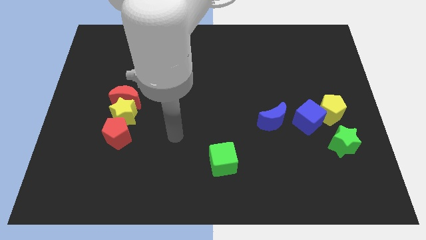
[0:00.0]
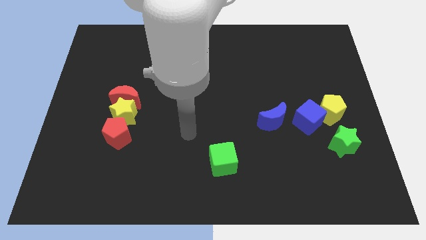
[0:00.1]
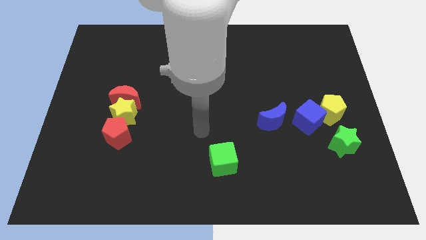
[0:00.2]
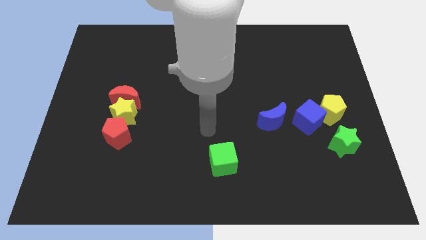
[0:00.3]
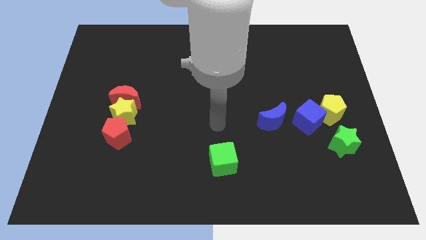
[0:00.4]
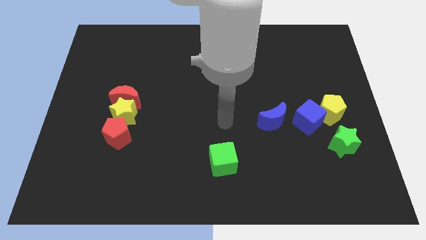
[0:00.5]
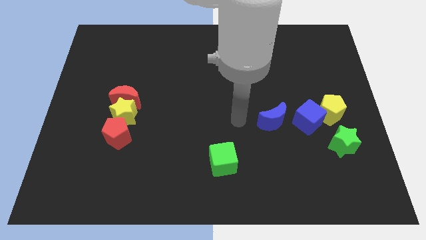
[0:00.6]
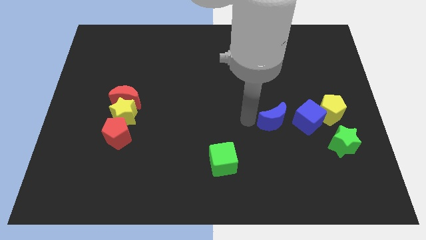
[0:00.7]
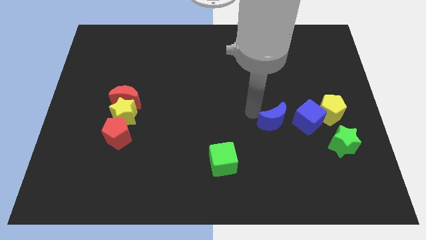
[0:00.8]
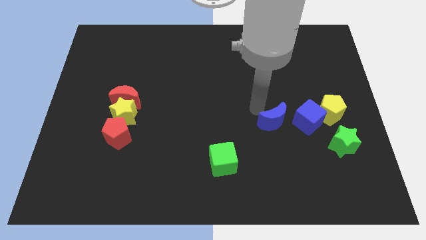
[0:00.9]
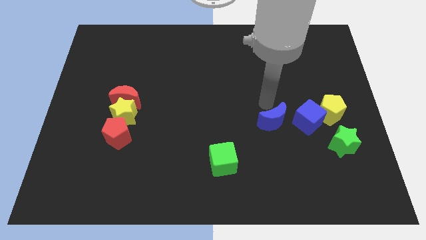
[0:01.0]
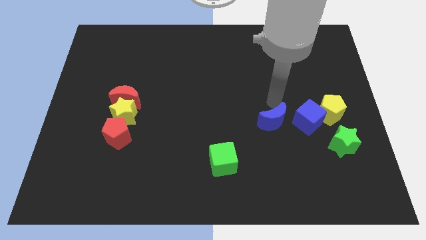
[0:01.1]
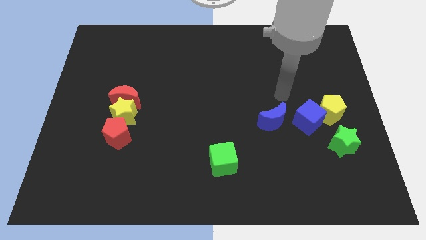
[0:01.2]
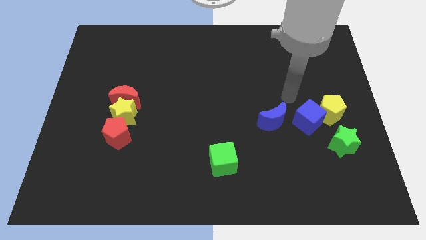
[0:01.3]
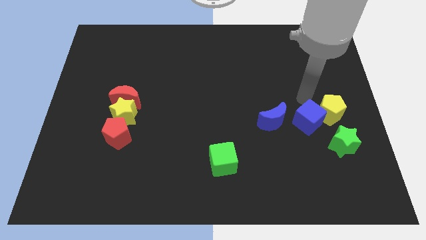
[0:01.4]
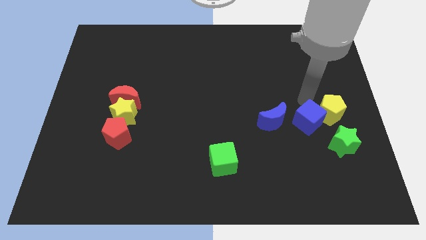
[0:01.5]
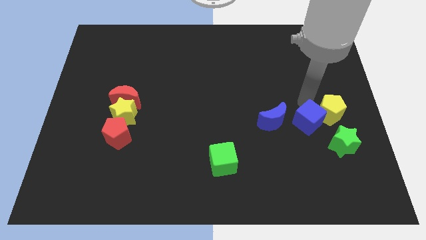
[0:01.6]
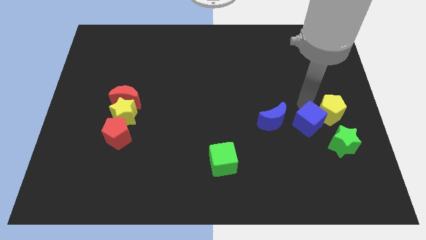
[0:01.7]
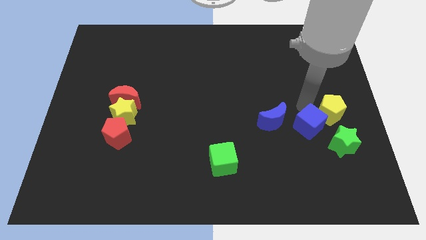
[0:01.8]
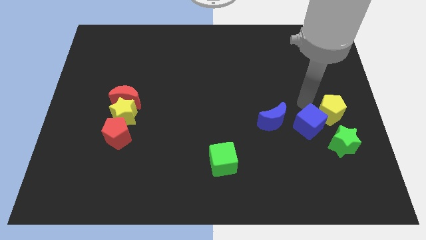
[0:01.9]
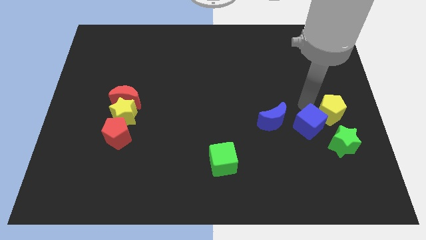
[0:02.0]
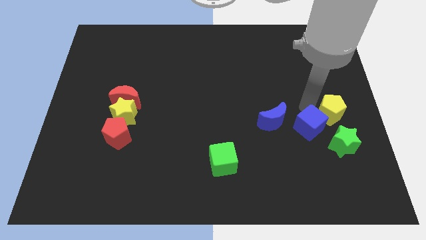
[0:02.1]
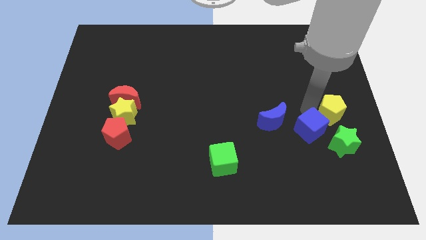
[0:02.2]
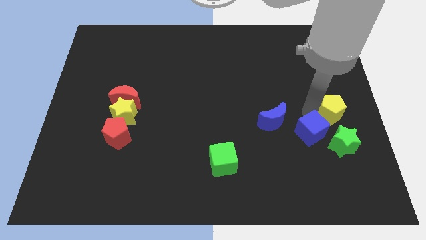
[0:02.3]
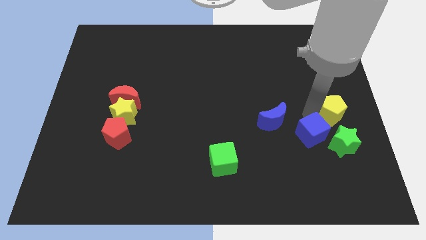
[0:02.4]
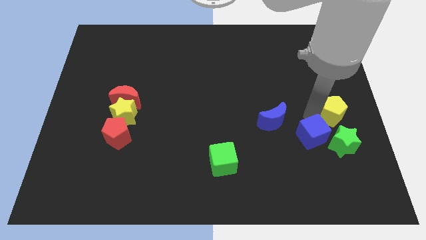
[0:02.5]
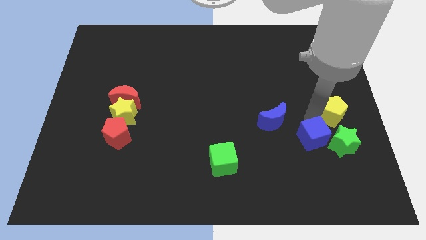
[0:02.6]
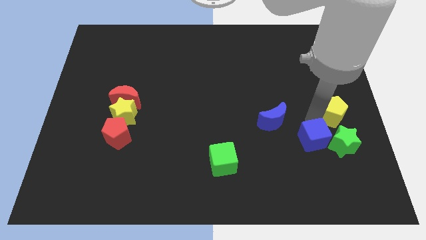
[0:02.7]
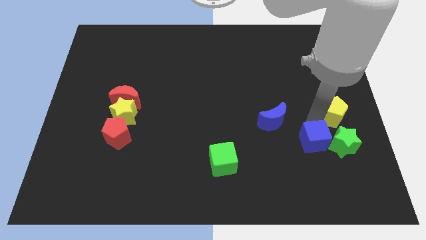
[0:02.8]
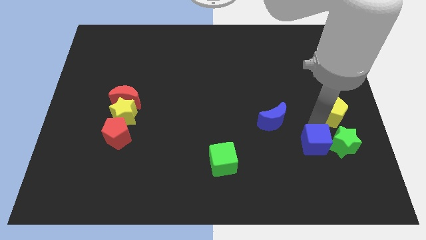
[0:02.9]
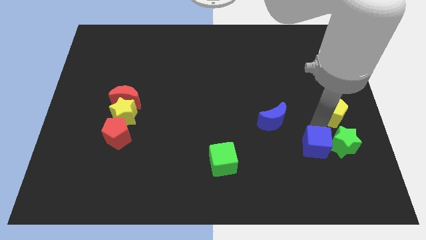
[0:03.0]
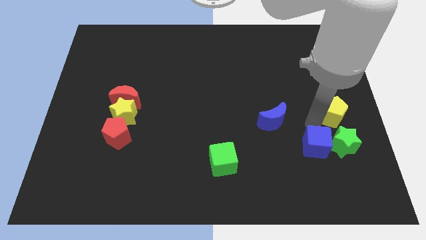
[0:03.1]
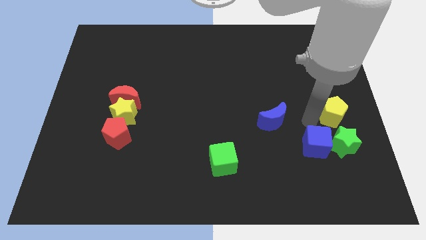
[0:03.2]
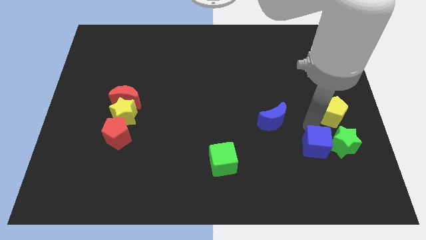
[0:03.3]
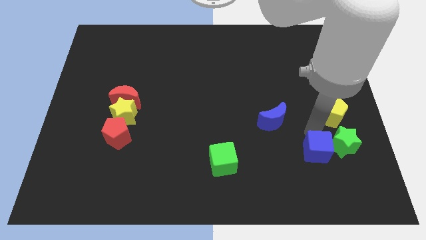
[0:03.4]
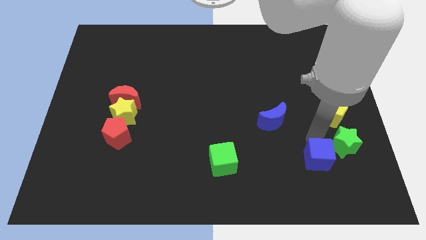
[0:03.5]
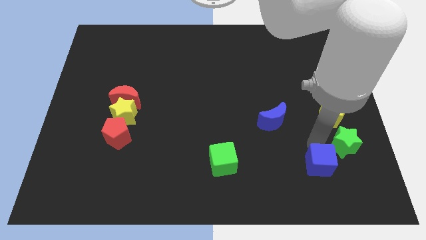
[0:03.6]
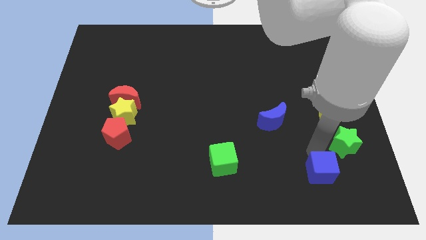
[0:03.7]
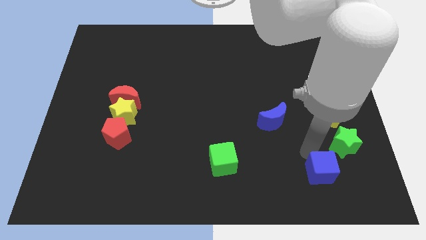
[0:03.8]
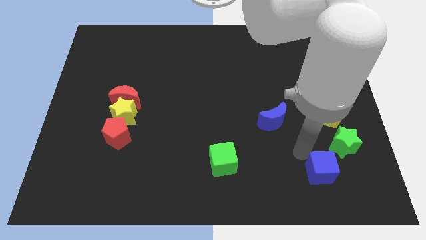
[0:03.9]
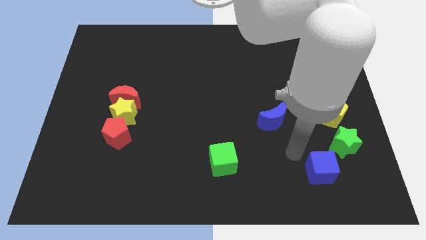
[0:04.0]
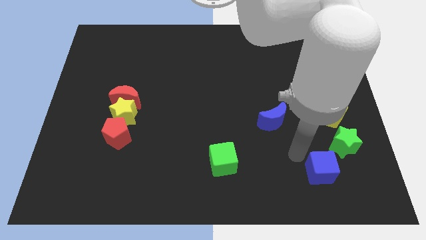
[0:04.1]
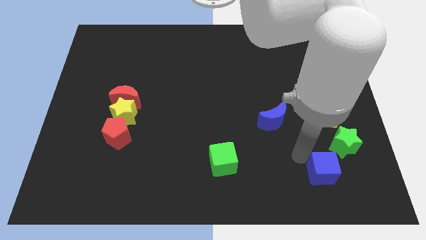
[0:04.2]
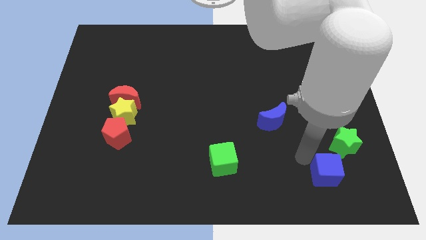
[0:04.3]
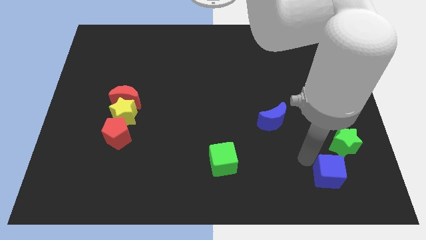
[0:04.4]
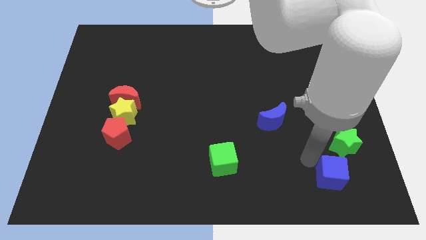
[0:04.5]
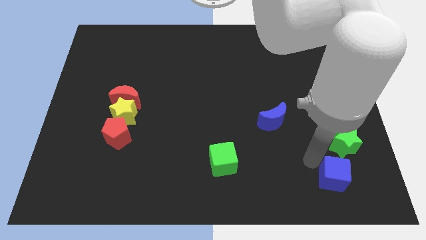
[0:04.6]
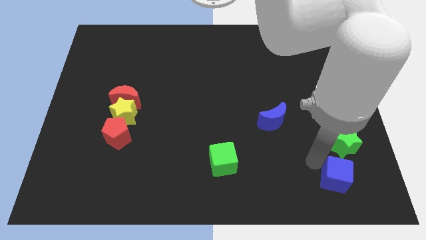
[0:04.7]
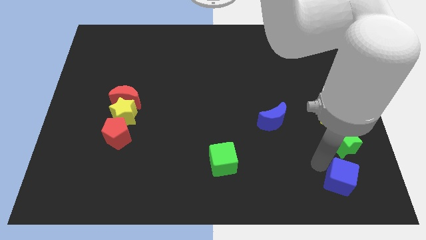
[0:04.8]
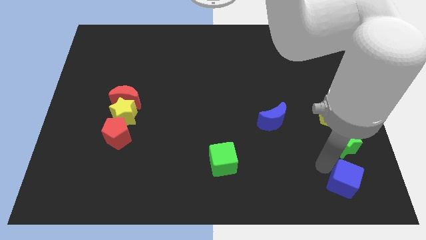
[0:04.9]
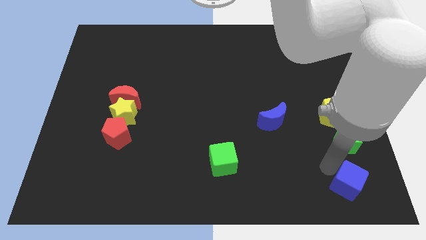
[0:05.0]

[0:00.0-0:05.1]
put the blue cube to the lower right corner

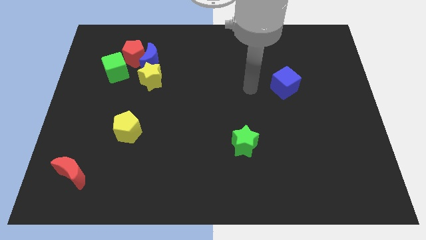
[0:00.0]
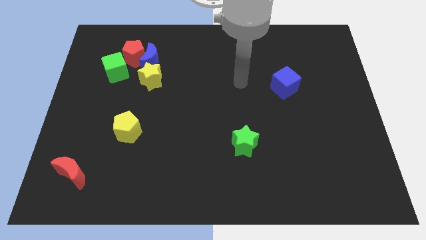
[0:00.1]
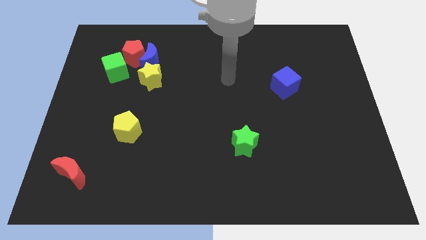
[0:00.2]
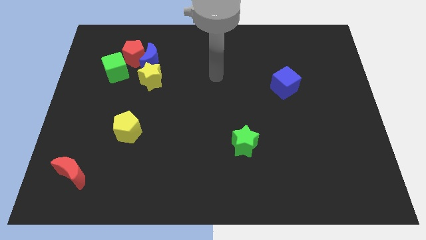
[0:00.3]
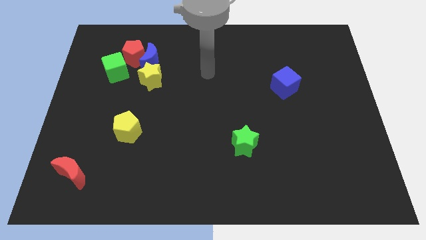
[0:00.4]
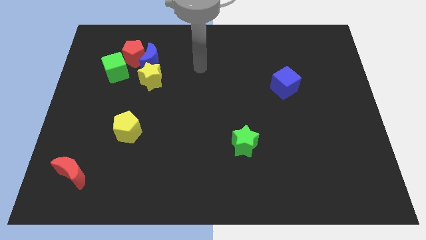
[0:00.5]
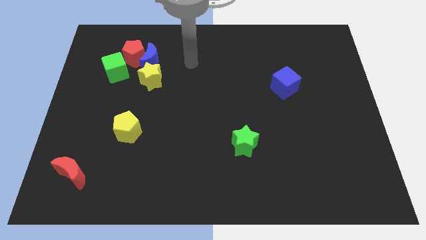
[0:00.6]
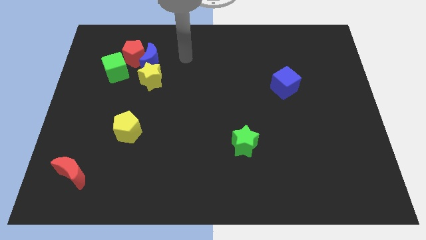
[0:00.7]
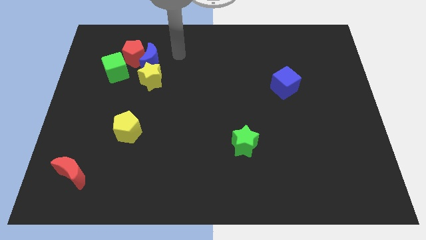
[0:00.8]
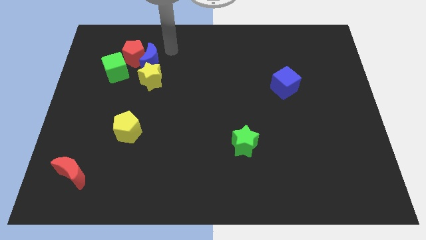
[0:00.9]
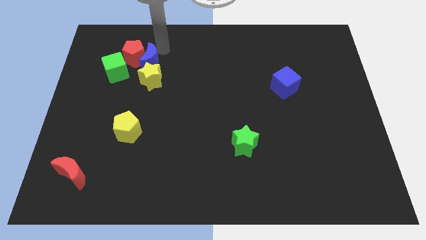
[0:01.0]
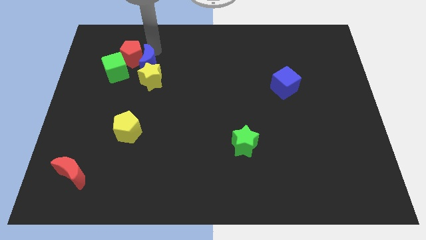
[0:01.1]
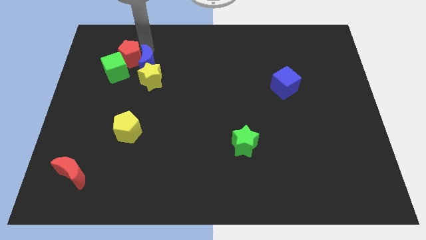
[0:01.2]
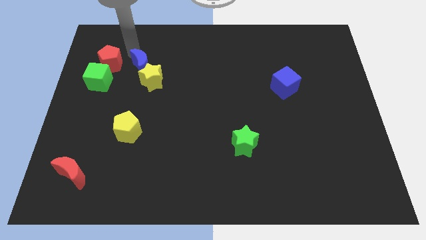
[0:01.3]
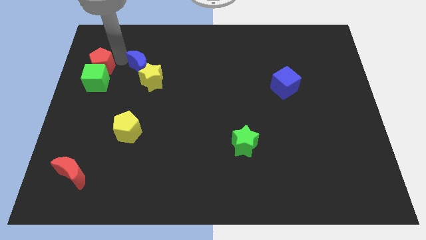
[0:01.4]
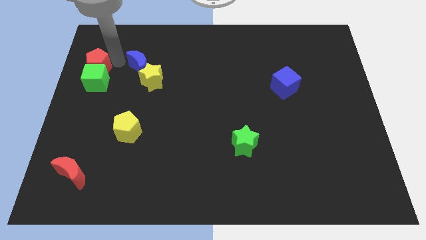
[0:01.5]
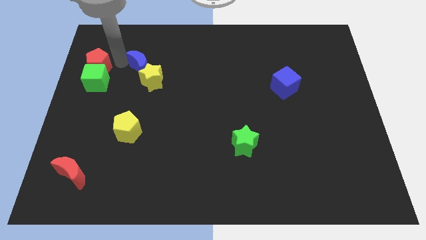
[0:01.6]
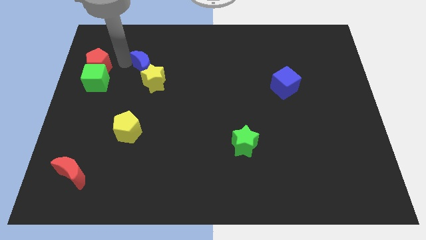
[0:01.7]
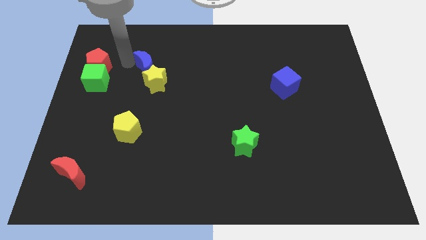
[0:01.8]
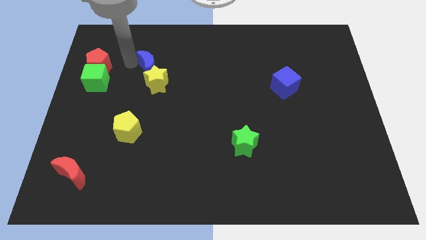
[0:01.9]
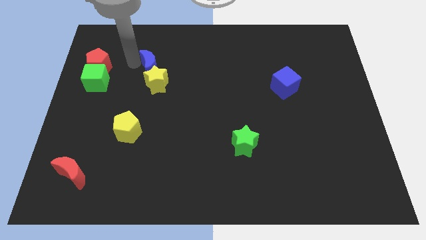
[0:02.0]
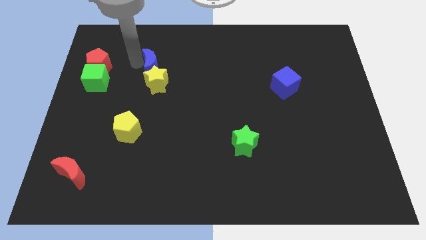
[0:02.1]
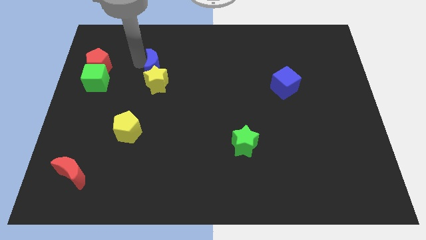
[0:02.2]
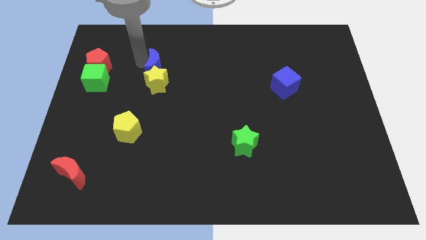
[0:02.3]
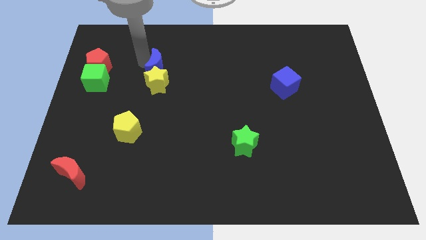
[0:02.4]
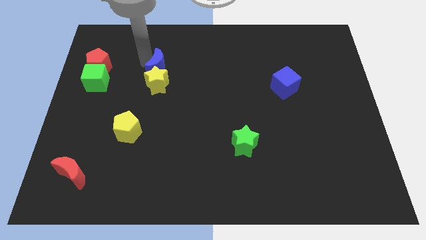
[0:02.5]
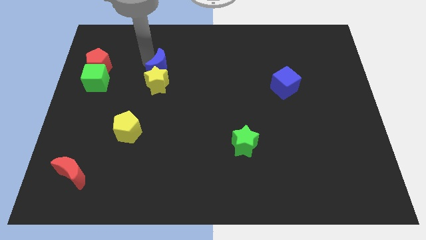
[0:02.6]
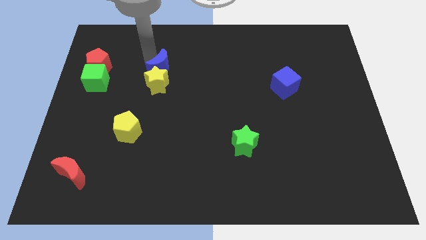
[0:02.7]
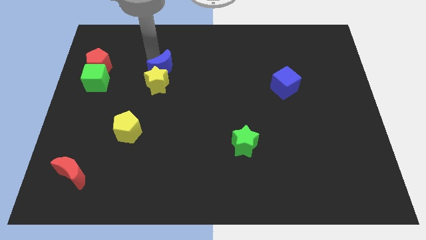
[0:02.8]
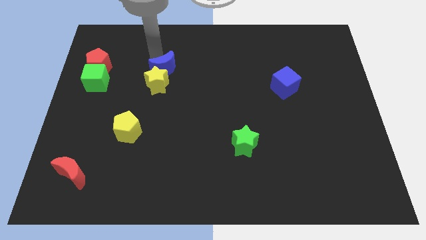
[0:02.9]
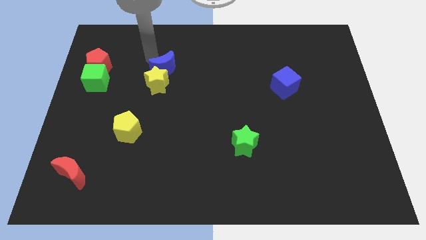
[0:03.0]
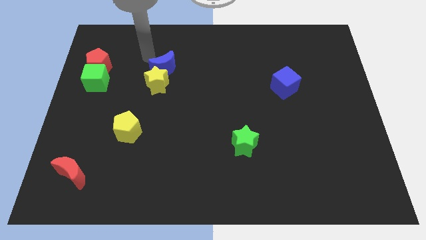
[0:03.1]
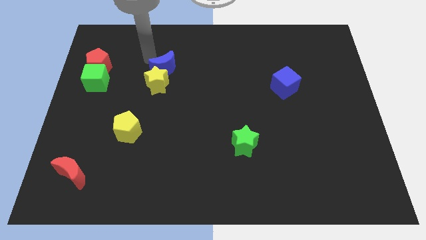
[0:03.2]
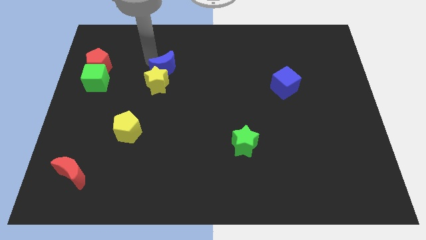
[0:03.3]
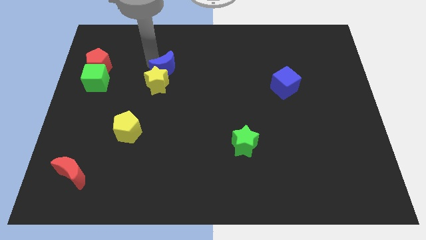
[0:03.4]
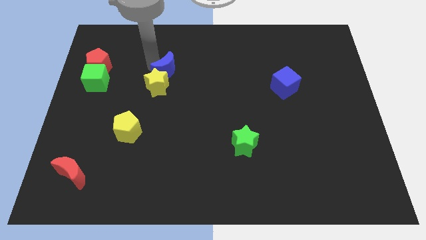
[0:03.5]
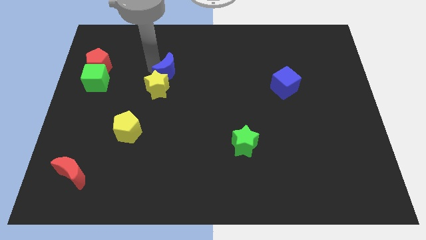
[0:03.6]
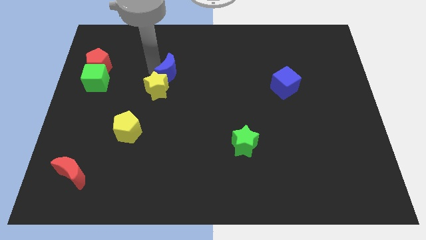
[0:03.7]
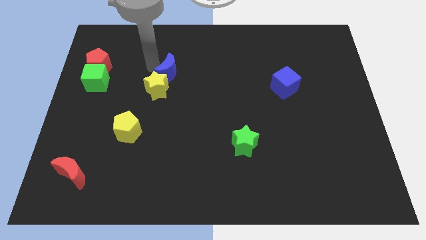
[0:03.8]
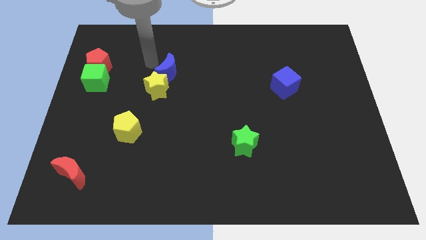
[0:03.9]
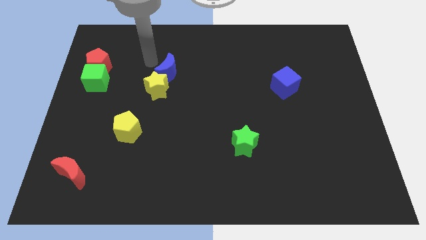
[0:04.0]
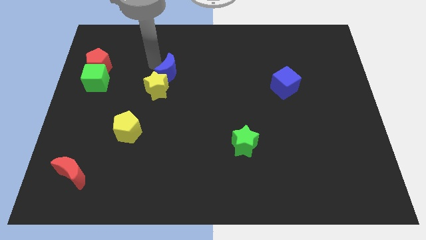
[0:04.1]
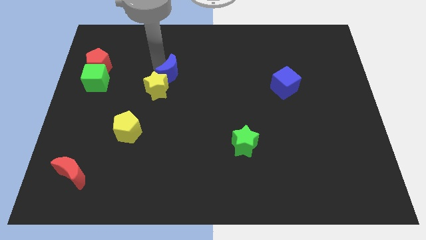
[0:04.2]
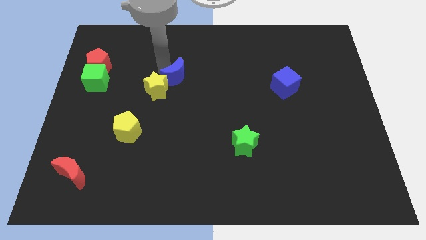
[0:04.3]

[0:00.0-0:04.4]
slide the blue moon to the center
